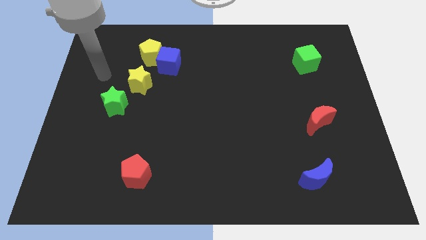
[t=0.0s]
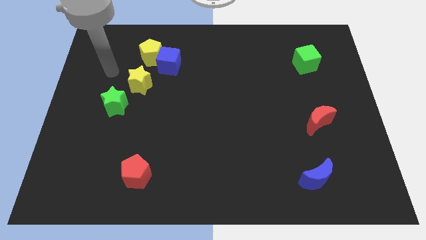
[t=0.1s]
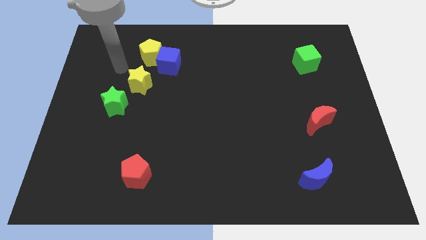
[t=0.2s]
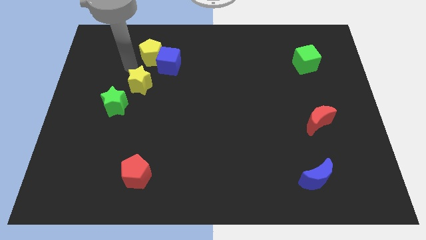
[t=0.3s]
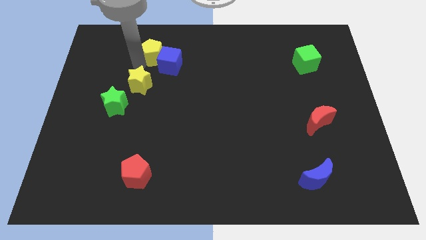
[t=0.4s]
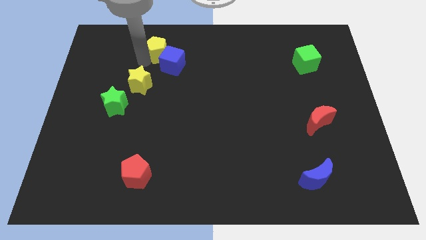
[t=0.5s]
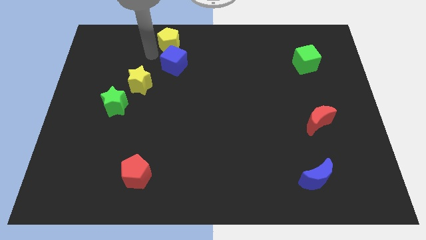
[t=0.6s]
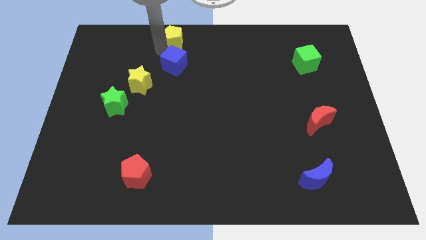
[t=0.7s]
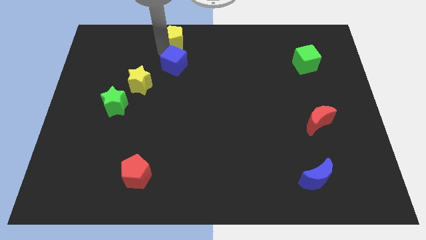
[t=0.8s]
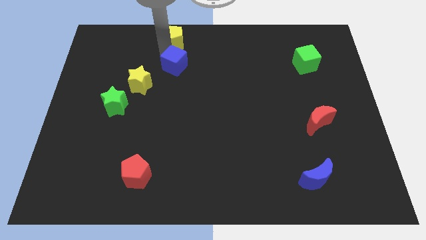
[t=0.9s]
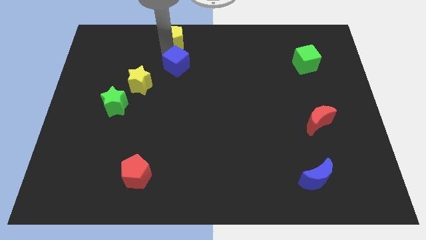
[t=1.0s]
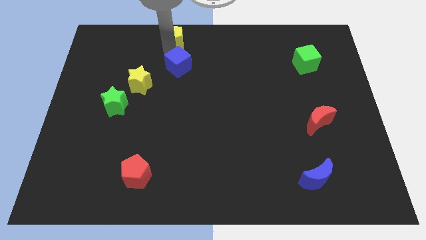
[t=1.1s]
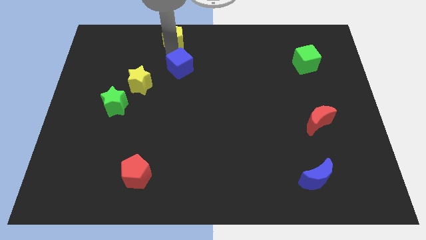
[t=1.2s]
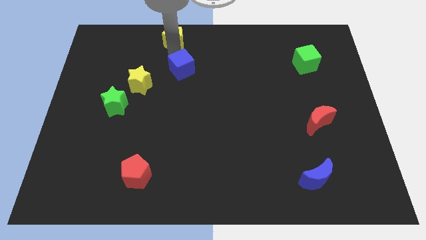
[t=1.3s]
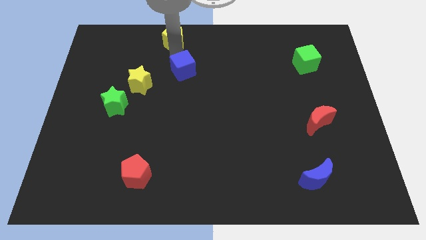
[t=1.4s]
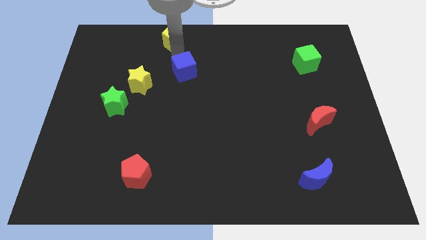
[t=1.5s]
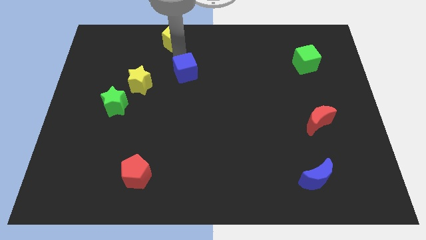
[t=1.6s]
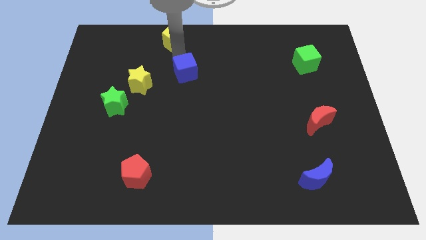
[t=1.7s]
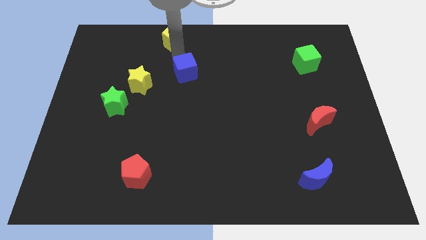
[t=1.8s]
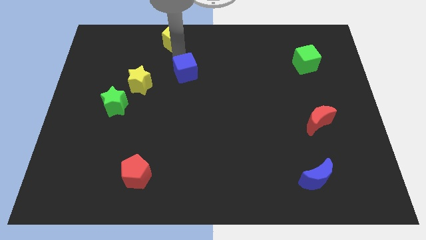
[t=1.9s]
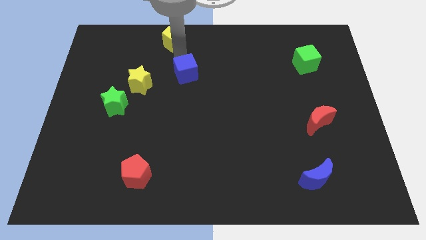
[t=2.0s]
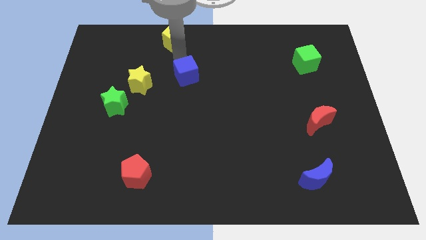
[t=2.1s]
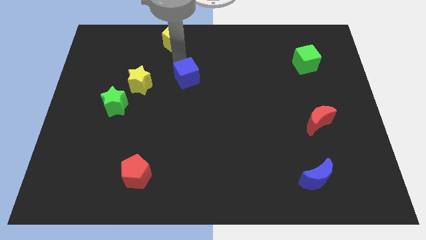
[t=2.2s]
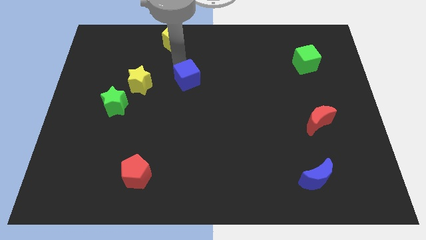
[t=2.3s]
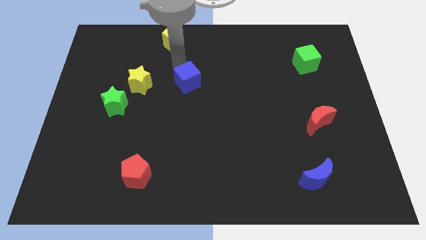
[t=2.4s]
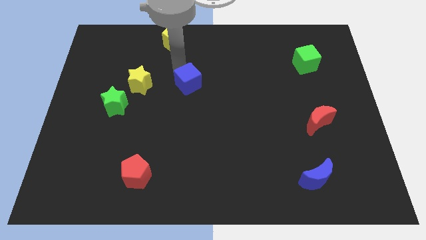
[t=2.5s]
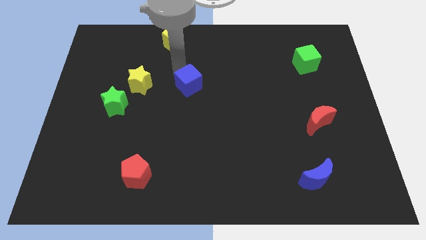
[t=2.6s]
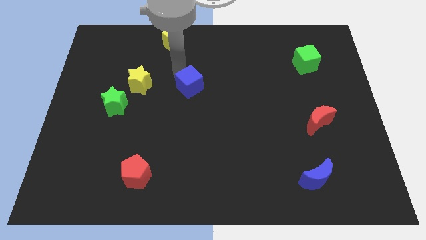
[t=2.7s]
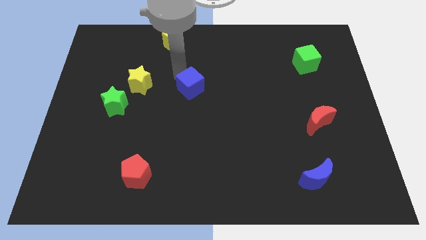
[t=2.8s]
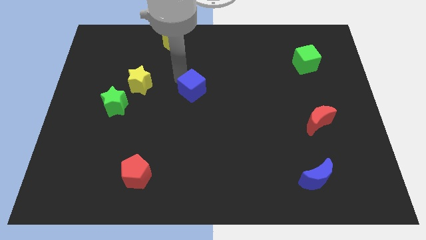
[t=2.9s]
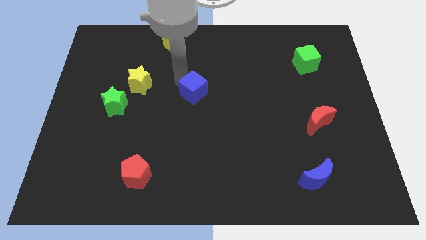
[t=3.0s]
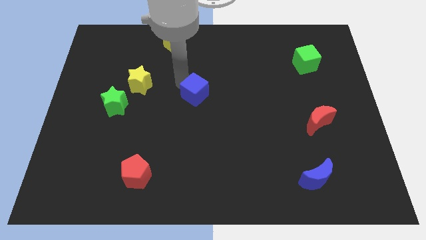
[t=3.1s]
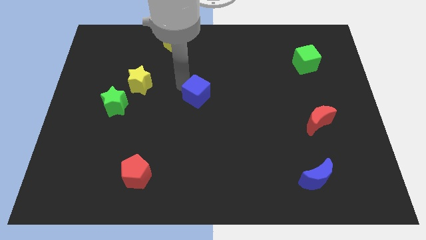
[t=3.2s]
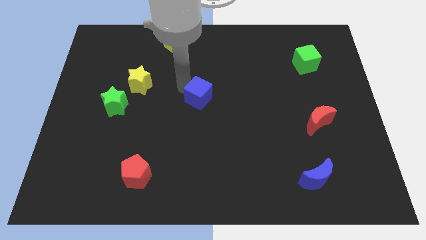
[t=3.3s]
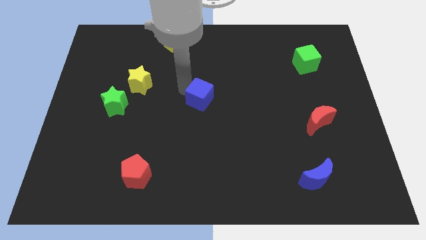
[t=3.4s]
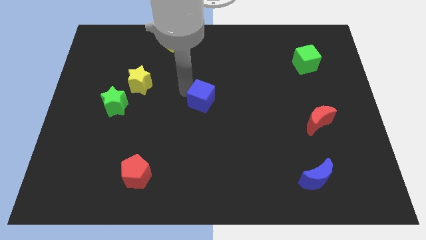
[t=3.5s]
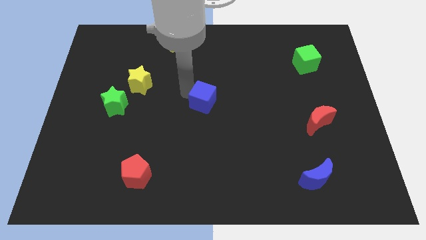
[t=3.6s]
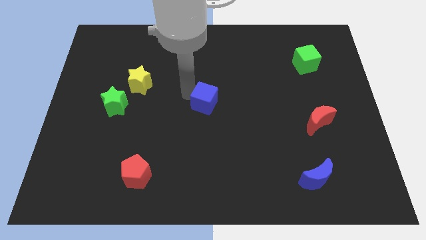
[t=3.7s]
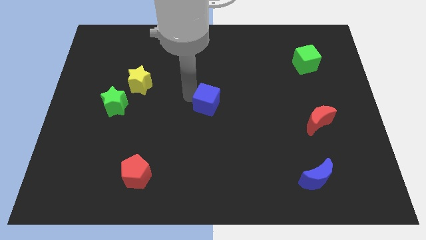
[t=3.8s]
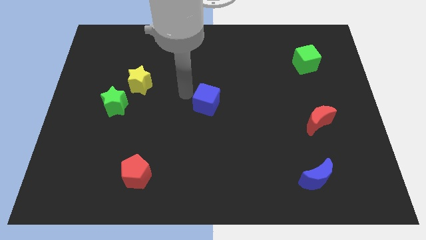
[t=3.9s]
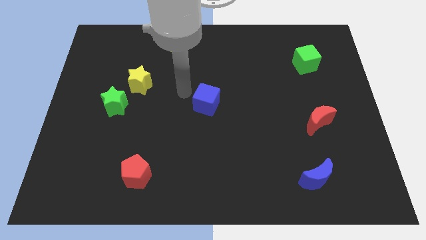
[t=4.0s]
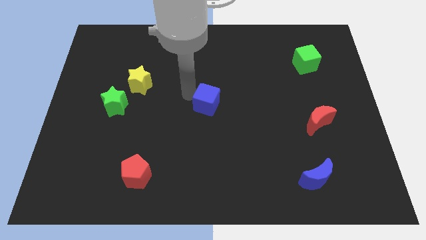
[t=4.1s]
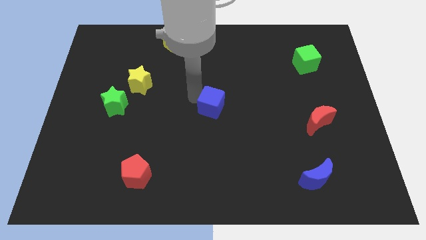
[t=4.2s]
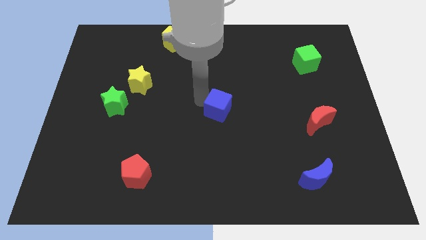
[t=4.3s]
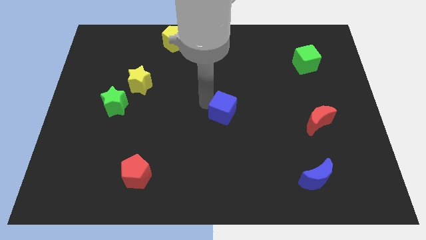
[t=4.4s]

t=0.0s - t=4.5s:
push the blue cube downwards and then right

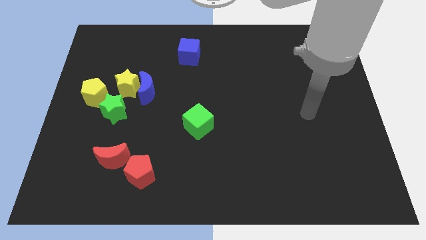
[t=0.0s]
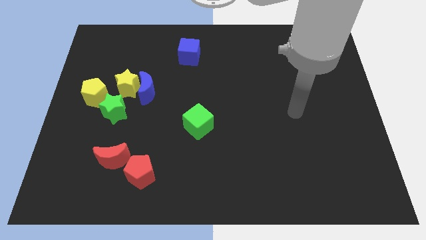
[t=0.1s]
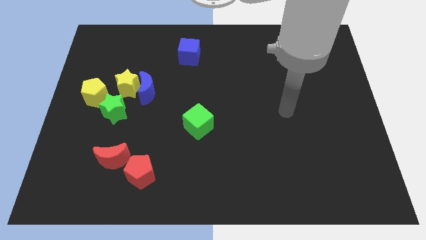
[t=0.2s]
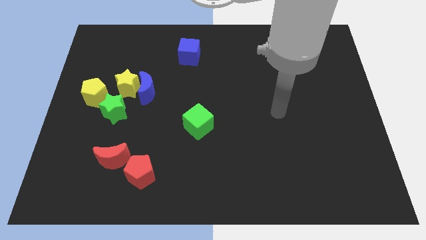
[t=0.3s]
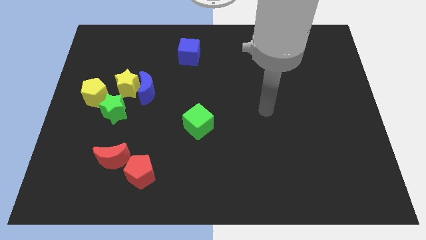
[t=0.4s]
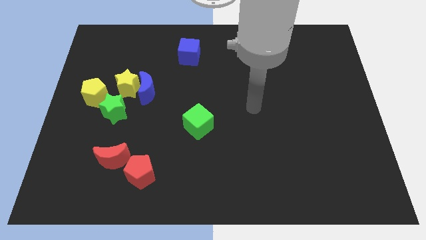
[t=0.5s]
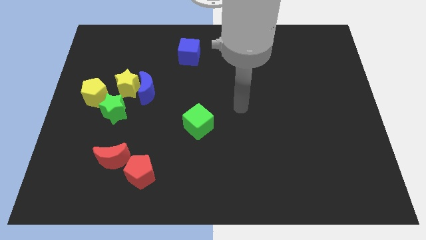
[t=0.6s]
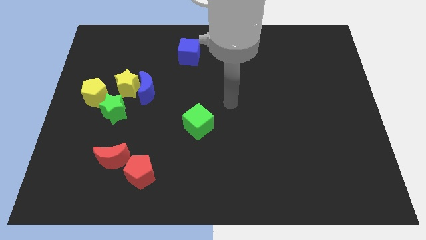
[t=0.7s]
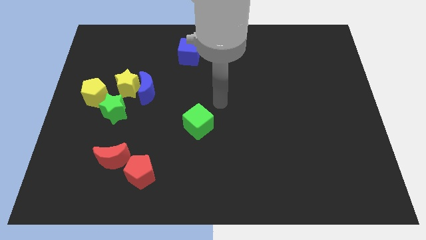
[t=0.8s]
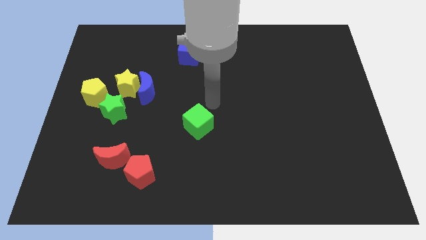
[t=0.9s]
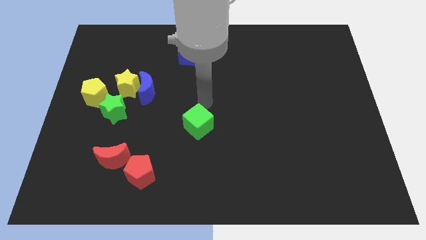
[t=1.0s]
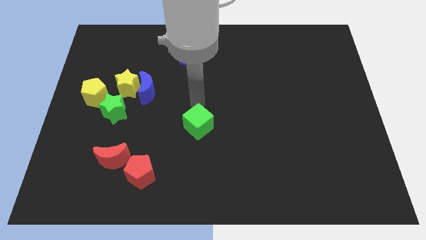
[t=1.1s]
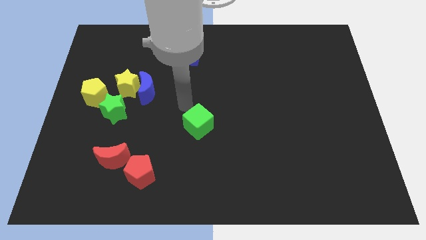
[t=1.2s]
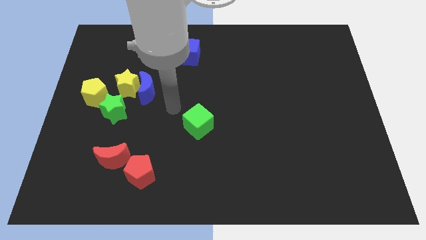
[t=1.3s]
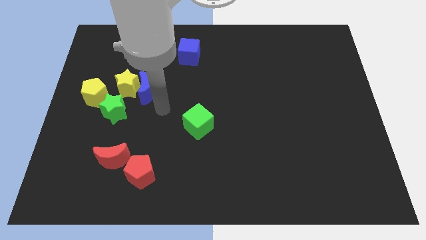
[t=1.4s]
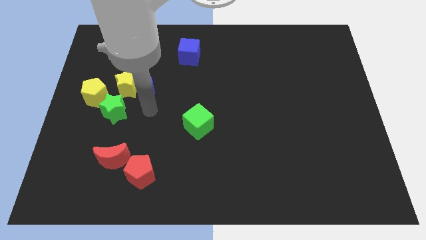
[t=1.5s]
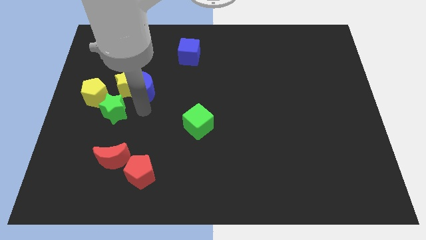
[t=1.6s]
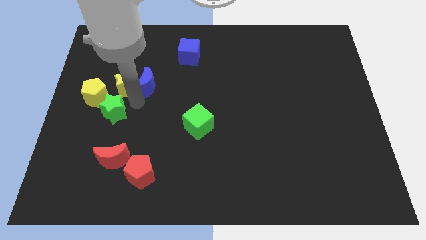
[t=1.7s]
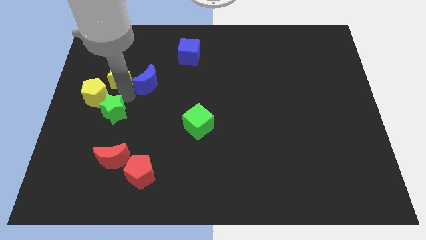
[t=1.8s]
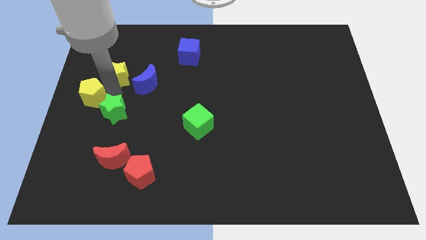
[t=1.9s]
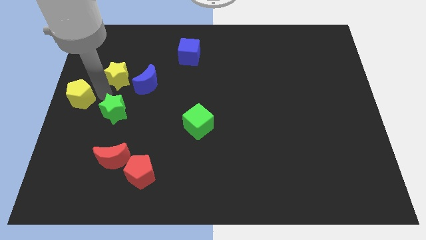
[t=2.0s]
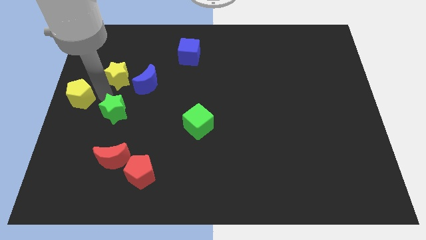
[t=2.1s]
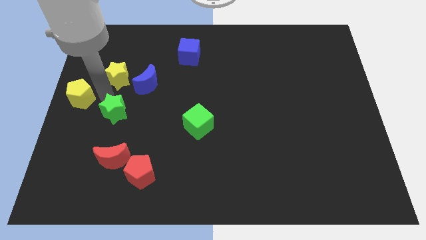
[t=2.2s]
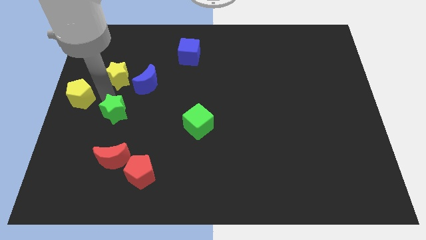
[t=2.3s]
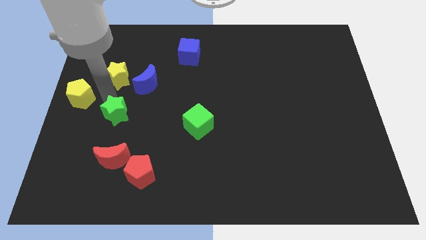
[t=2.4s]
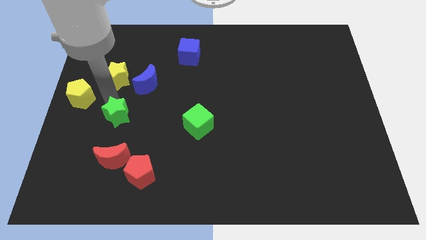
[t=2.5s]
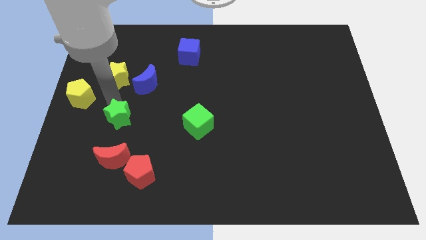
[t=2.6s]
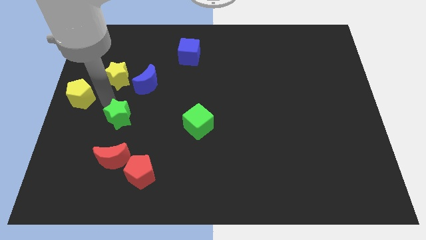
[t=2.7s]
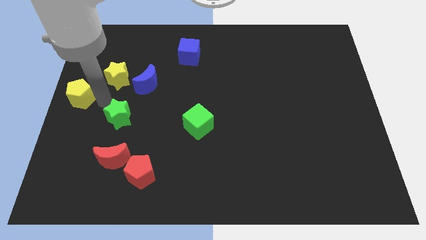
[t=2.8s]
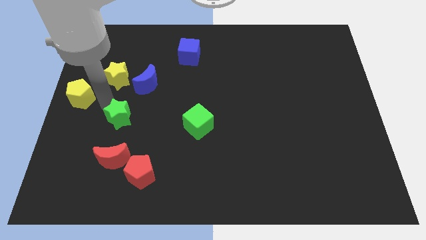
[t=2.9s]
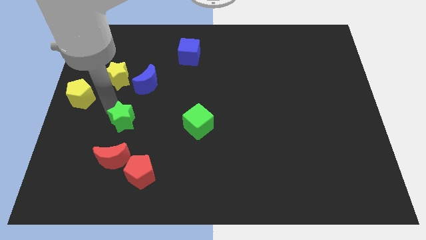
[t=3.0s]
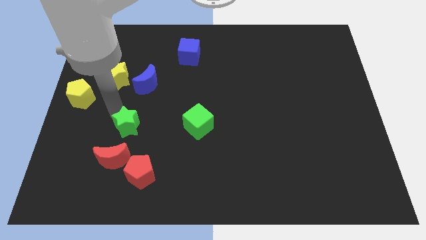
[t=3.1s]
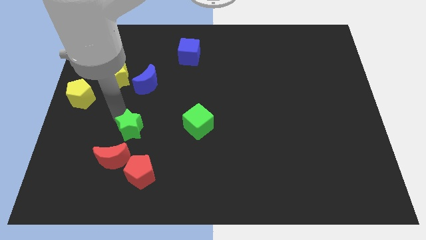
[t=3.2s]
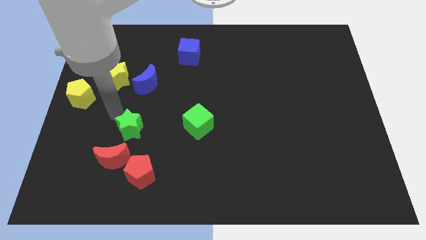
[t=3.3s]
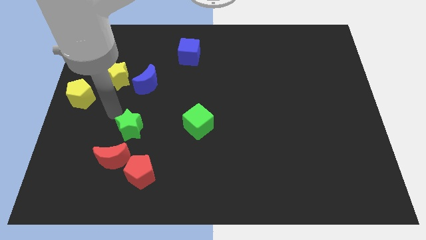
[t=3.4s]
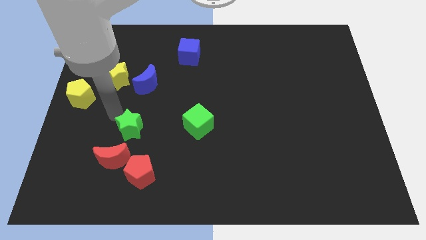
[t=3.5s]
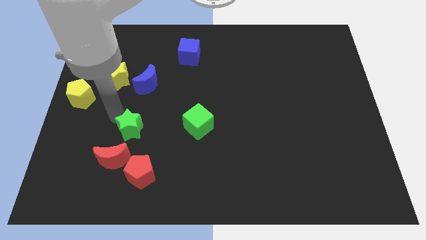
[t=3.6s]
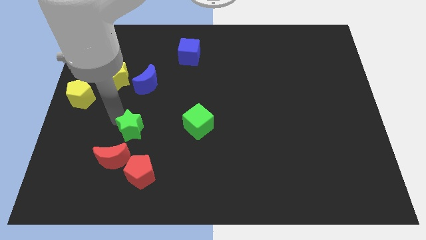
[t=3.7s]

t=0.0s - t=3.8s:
push the green star a bit diagonally downwards and to the right
